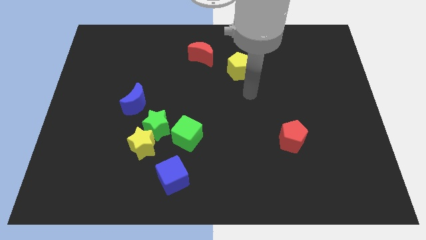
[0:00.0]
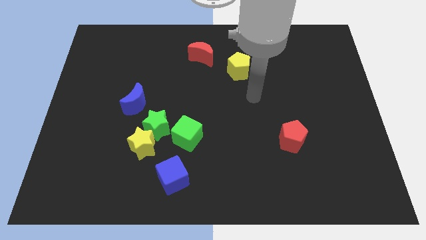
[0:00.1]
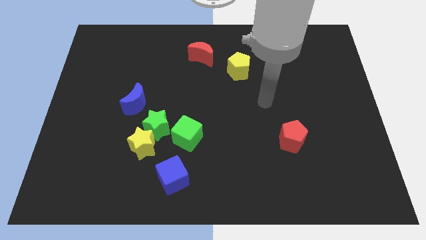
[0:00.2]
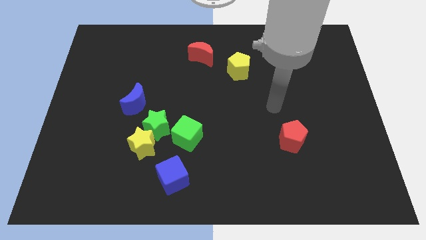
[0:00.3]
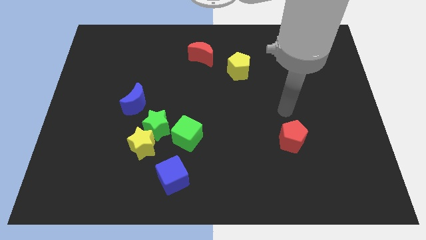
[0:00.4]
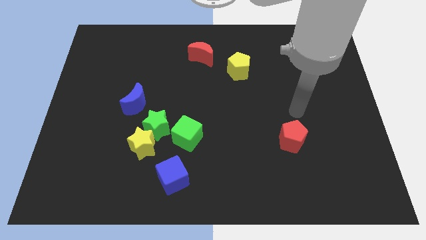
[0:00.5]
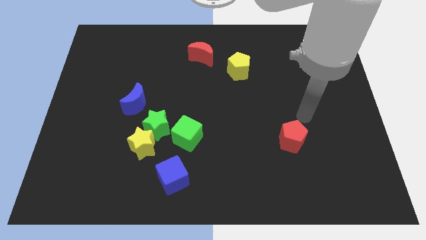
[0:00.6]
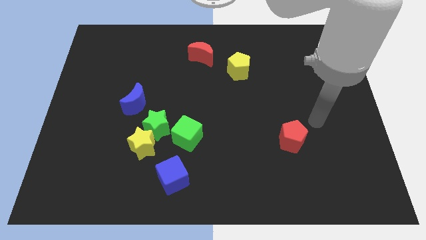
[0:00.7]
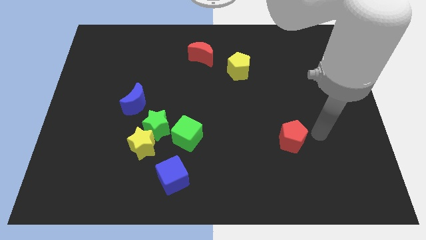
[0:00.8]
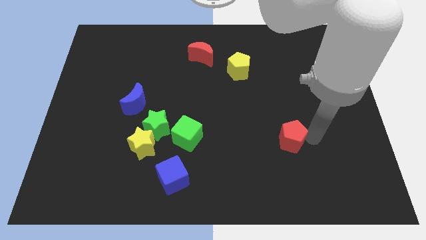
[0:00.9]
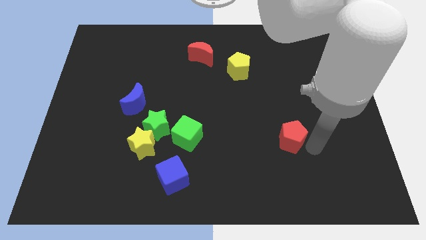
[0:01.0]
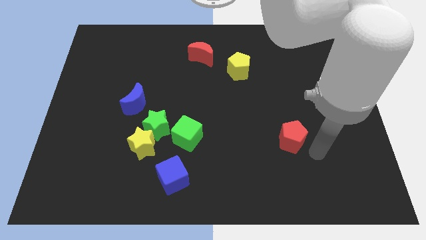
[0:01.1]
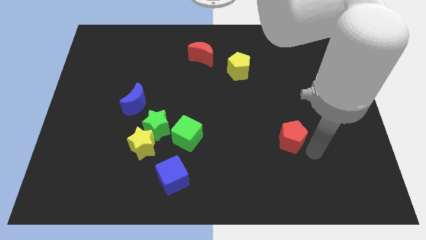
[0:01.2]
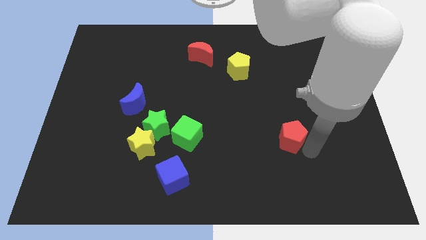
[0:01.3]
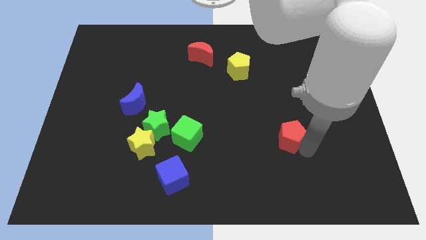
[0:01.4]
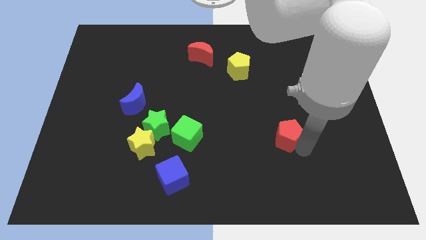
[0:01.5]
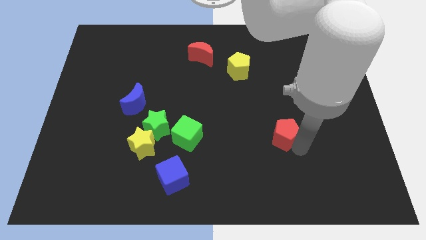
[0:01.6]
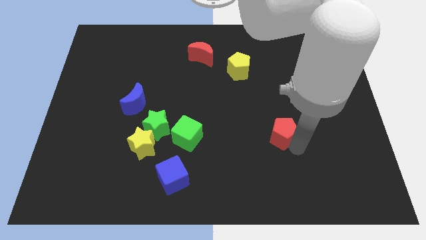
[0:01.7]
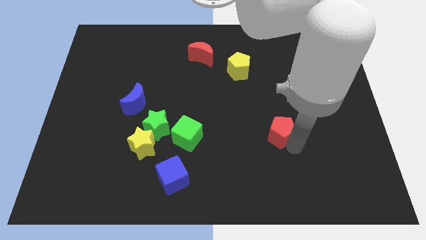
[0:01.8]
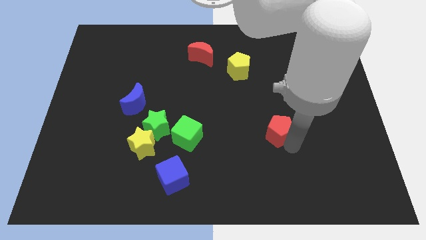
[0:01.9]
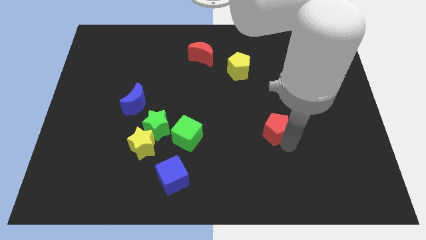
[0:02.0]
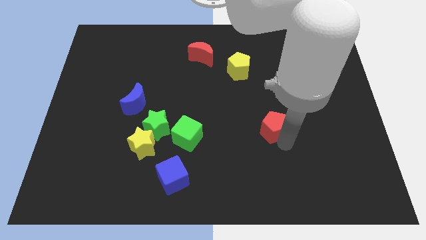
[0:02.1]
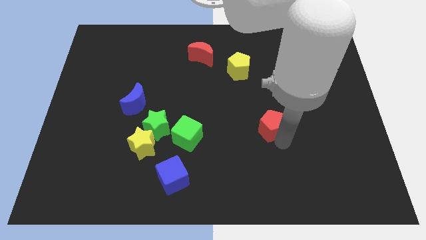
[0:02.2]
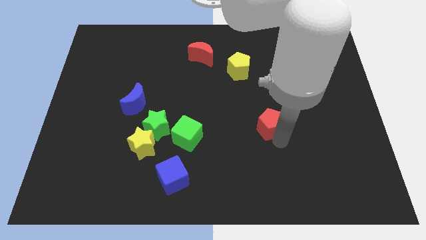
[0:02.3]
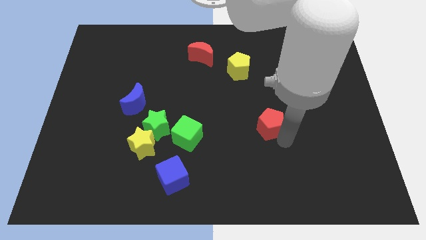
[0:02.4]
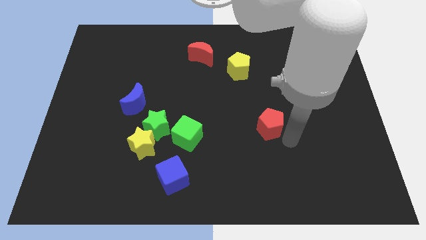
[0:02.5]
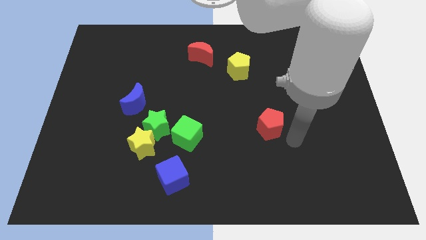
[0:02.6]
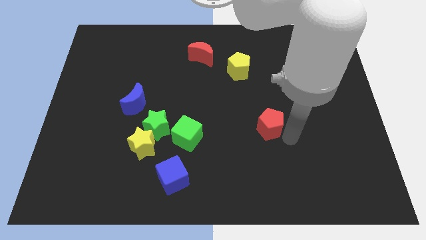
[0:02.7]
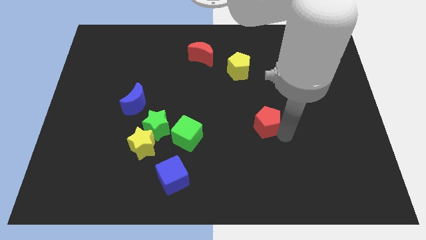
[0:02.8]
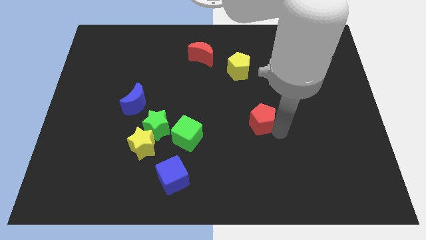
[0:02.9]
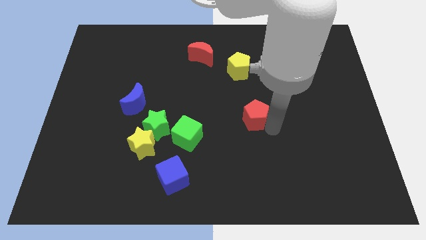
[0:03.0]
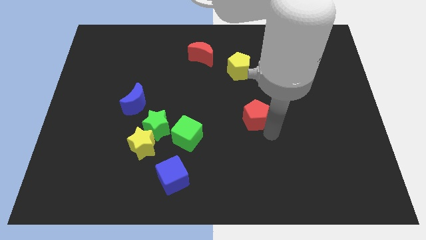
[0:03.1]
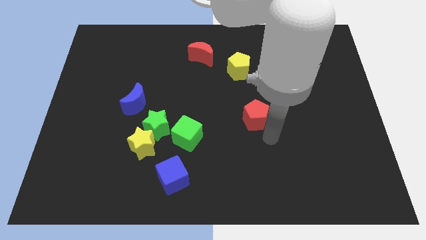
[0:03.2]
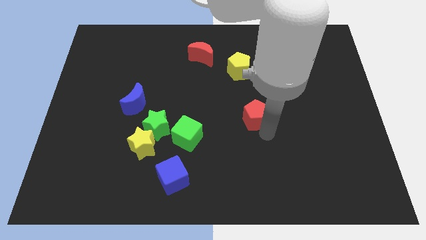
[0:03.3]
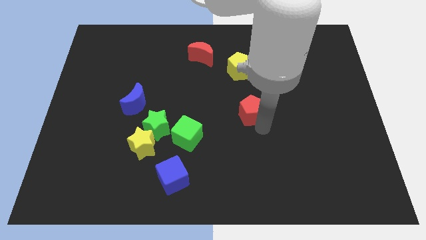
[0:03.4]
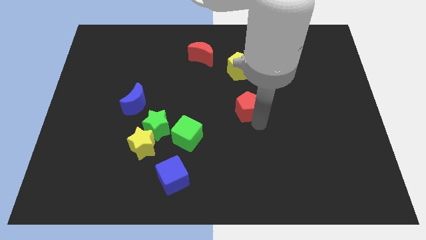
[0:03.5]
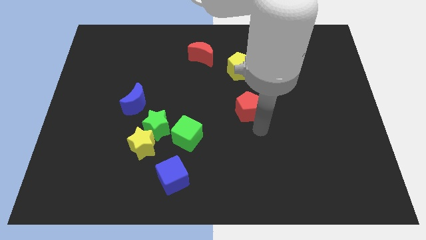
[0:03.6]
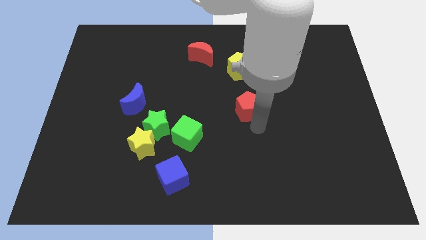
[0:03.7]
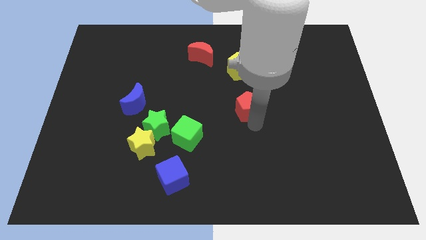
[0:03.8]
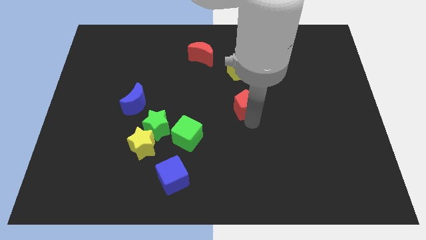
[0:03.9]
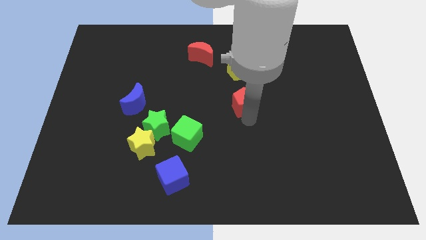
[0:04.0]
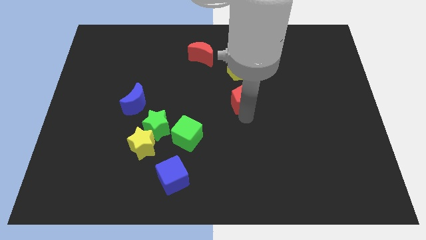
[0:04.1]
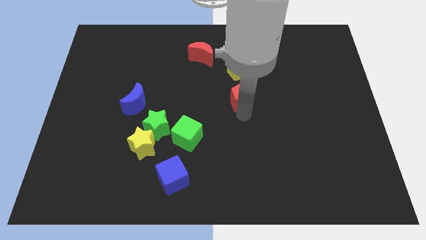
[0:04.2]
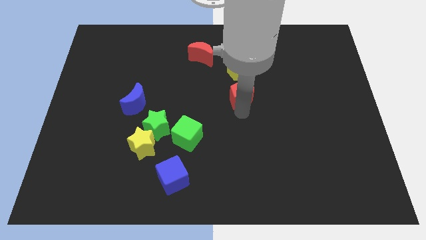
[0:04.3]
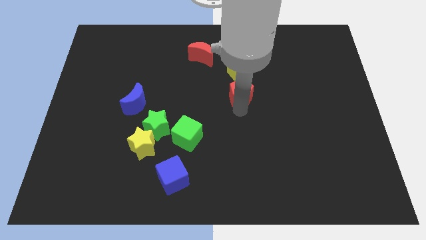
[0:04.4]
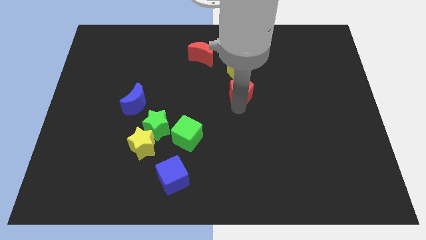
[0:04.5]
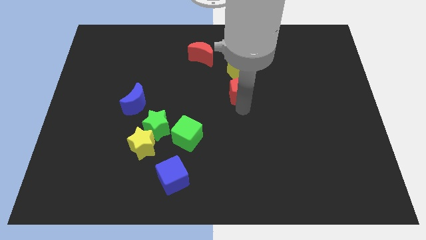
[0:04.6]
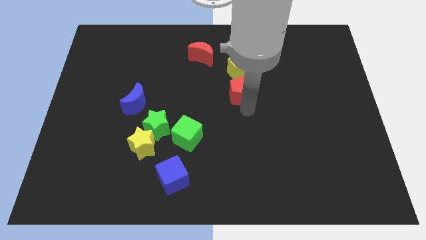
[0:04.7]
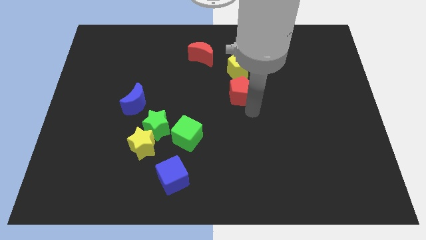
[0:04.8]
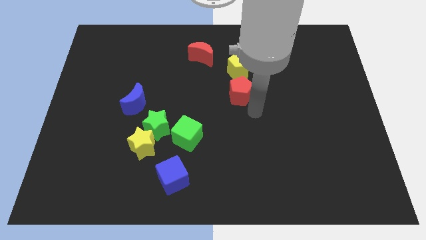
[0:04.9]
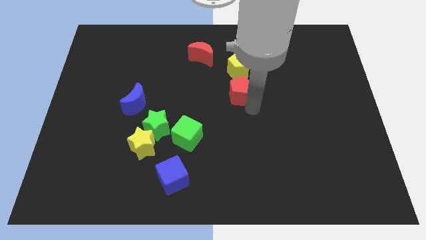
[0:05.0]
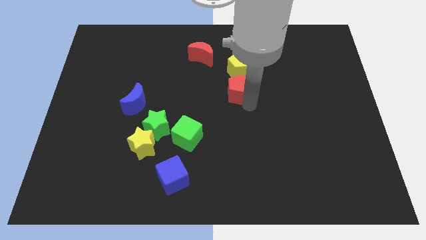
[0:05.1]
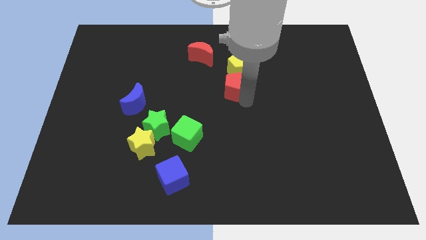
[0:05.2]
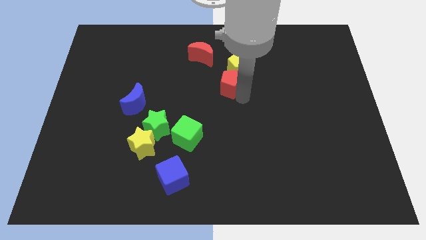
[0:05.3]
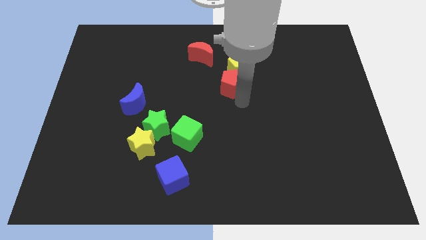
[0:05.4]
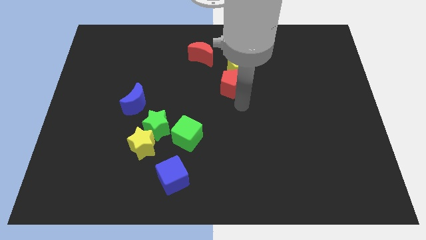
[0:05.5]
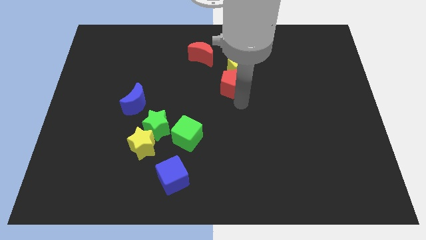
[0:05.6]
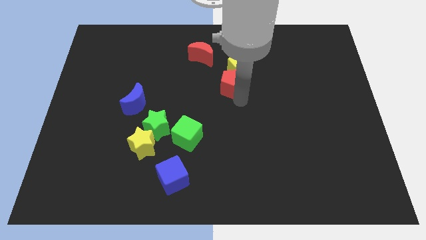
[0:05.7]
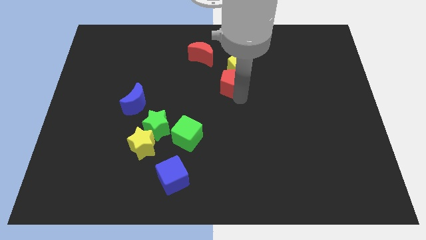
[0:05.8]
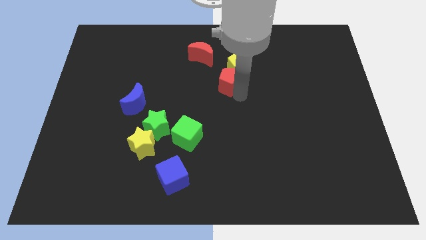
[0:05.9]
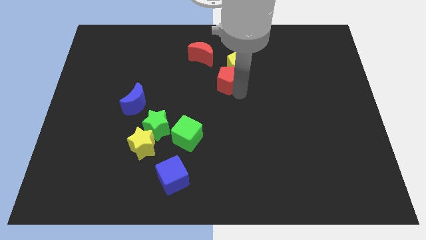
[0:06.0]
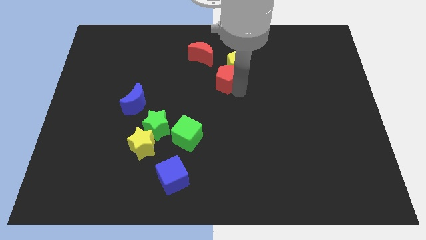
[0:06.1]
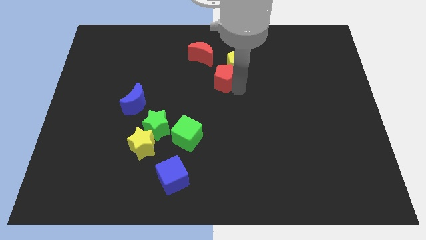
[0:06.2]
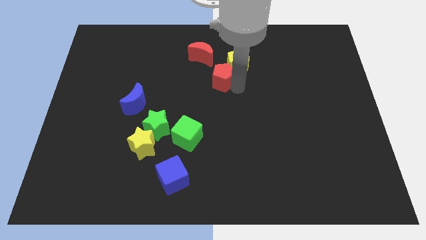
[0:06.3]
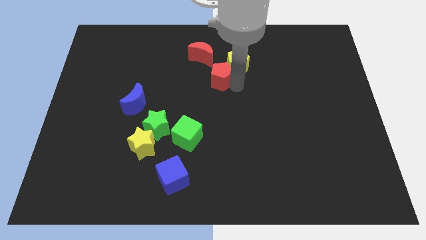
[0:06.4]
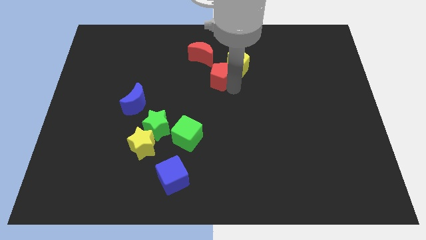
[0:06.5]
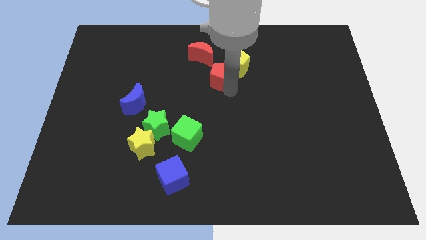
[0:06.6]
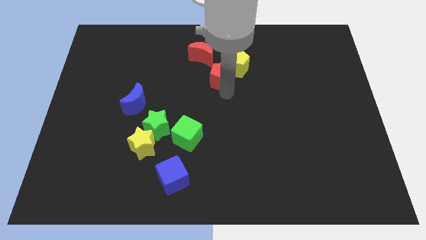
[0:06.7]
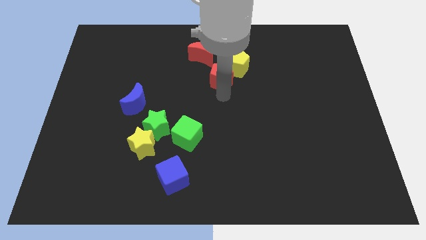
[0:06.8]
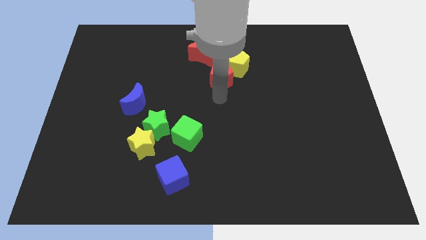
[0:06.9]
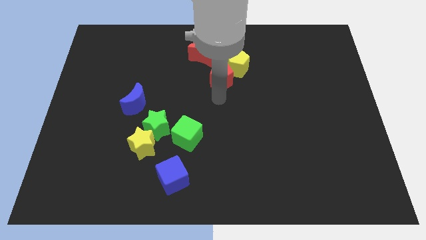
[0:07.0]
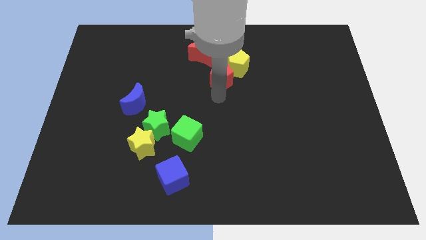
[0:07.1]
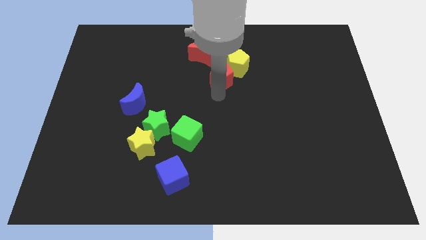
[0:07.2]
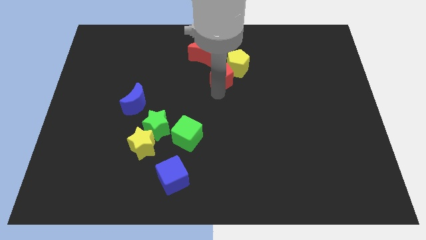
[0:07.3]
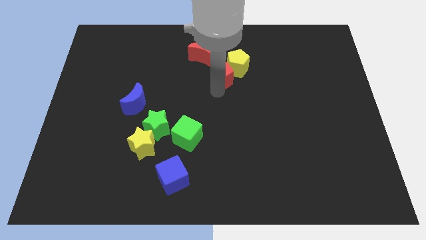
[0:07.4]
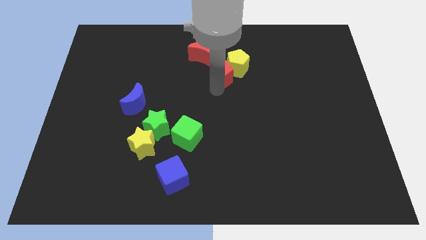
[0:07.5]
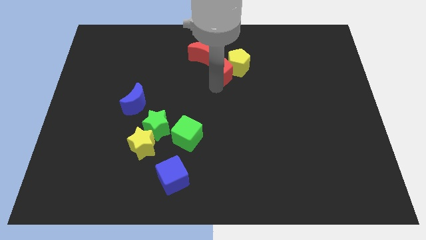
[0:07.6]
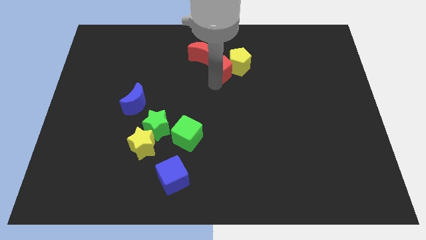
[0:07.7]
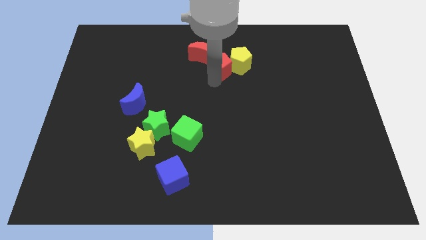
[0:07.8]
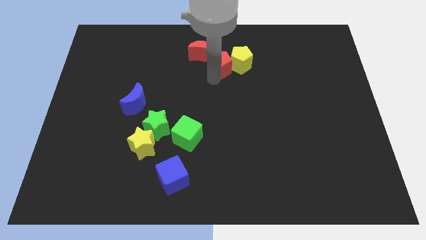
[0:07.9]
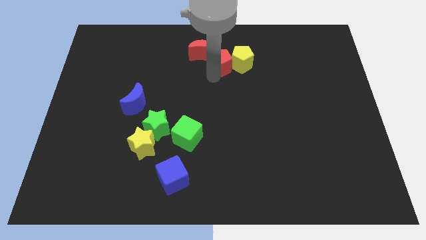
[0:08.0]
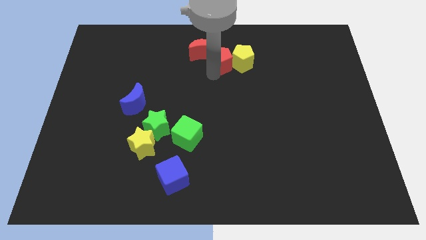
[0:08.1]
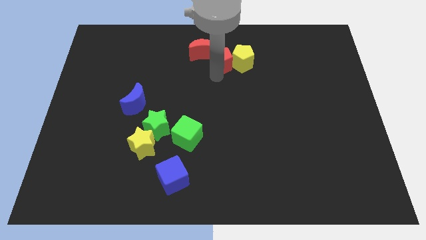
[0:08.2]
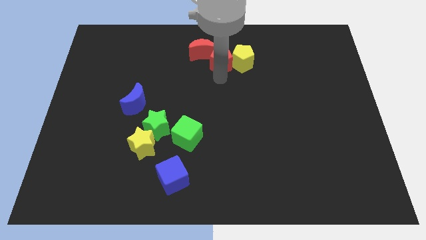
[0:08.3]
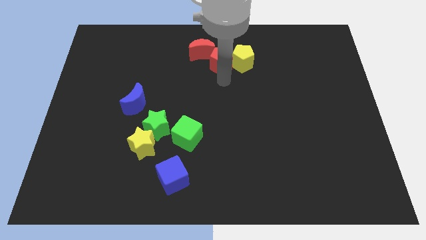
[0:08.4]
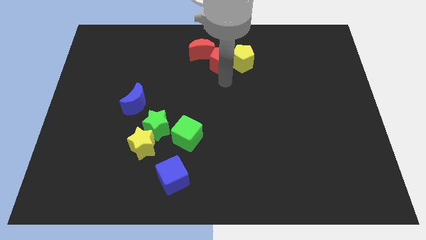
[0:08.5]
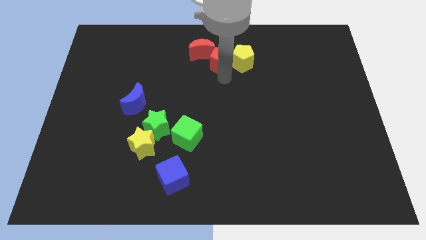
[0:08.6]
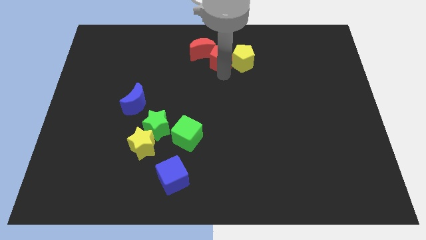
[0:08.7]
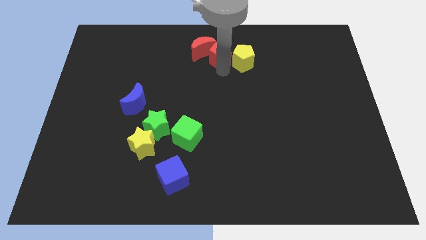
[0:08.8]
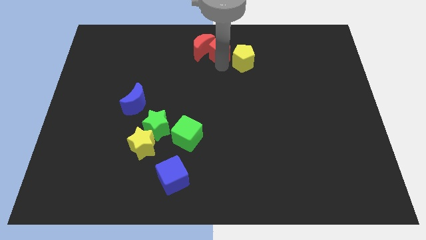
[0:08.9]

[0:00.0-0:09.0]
slide the red pentagon to the top
